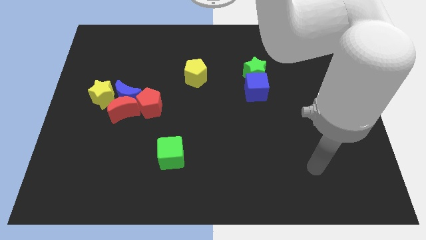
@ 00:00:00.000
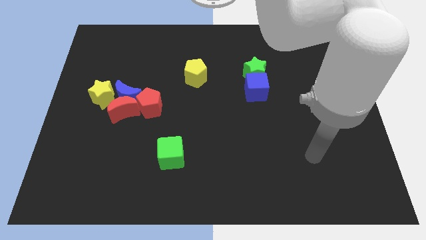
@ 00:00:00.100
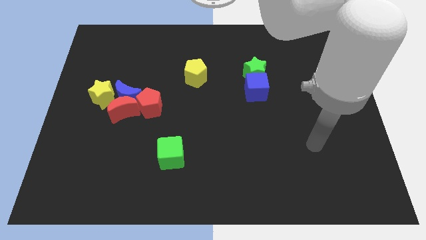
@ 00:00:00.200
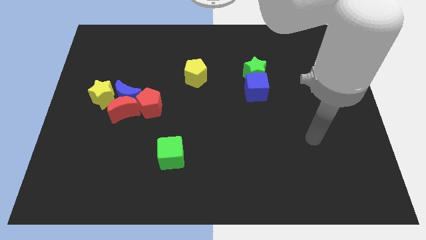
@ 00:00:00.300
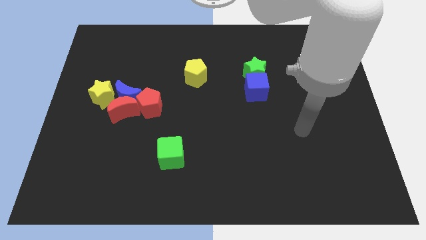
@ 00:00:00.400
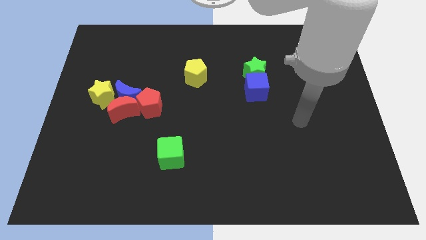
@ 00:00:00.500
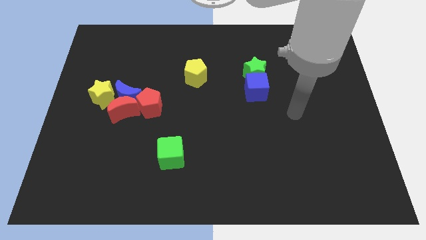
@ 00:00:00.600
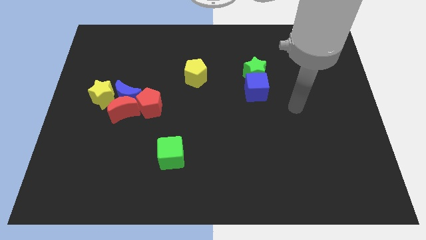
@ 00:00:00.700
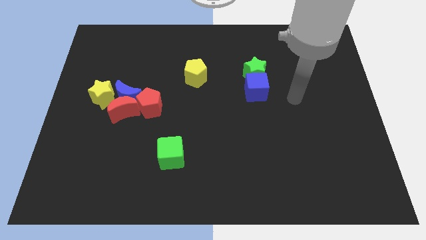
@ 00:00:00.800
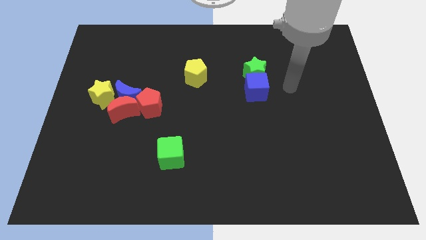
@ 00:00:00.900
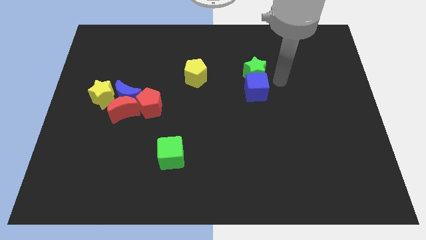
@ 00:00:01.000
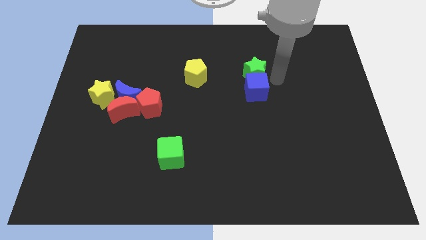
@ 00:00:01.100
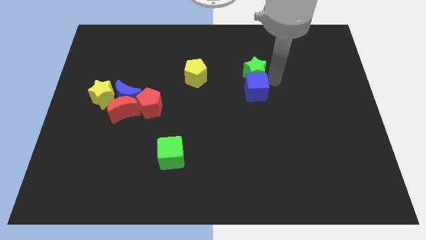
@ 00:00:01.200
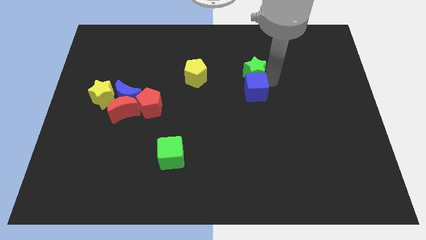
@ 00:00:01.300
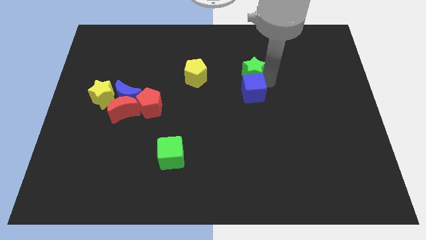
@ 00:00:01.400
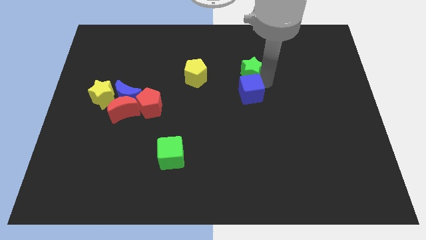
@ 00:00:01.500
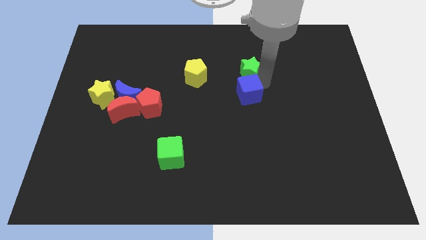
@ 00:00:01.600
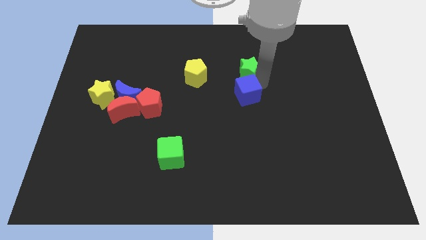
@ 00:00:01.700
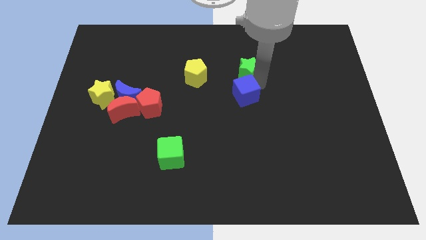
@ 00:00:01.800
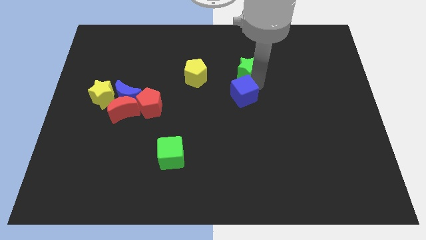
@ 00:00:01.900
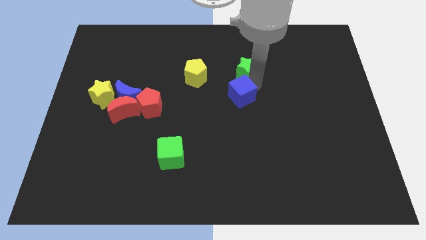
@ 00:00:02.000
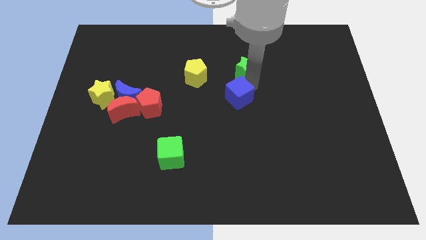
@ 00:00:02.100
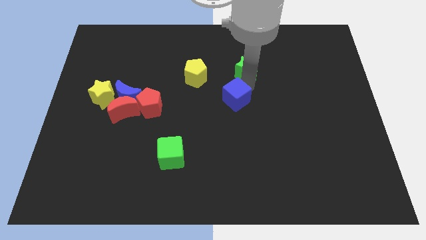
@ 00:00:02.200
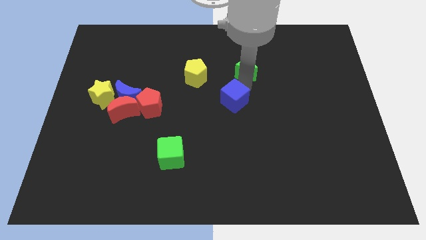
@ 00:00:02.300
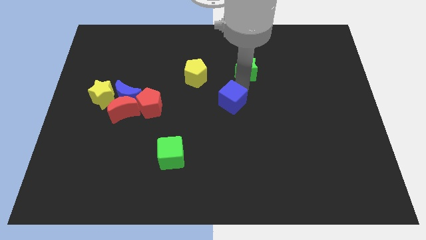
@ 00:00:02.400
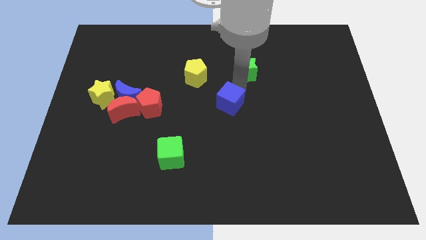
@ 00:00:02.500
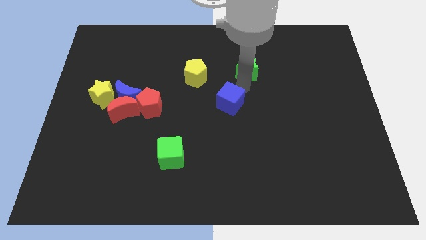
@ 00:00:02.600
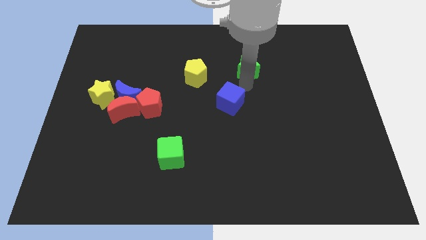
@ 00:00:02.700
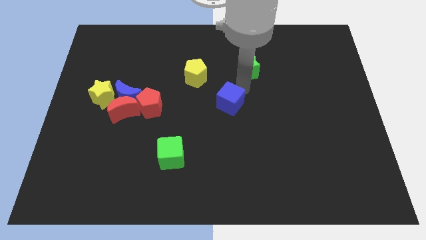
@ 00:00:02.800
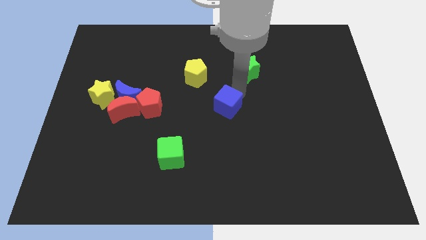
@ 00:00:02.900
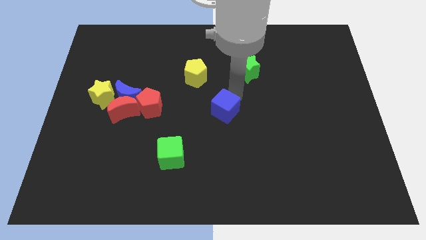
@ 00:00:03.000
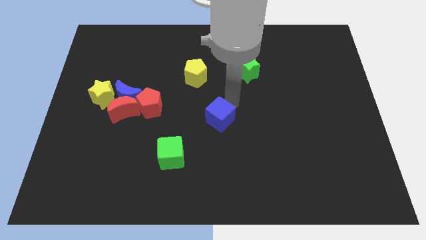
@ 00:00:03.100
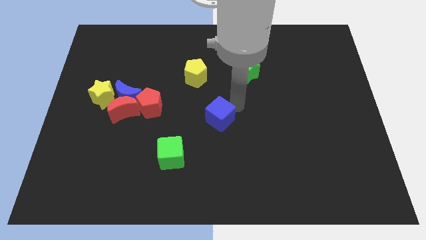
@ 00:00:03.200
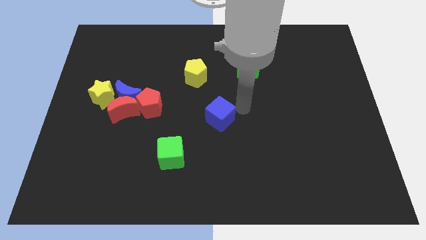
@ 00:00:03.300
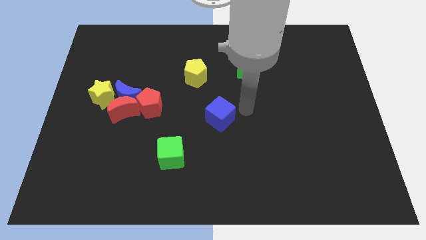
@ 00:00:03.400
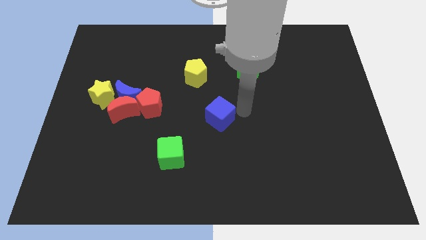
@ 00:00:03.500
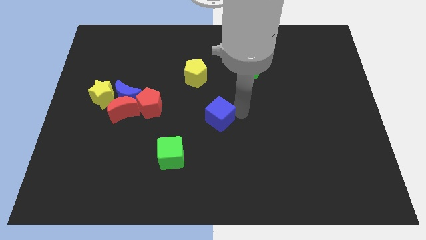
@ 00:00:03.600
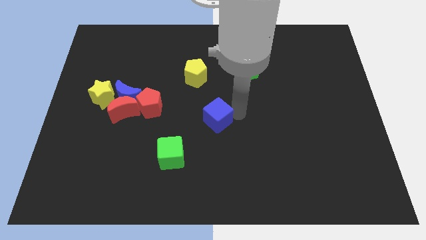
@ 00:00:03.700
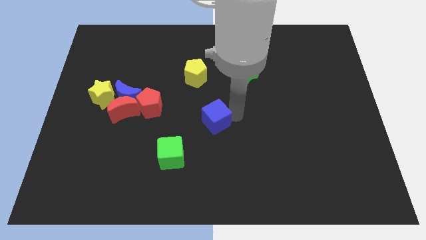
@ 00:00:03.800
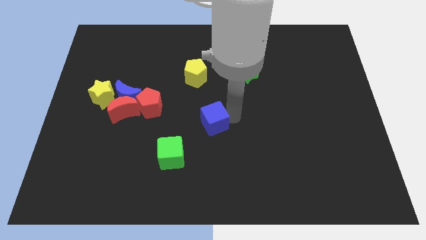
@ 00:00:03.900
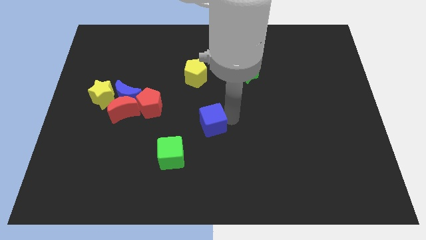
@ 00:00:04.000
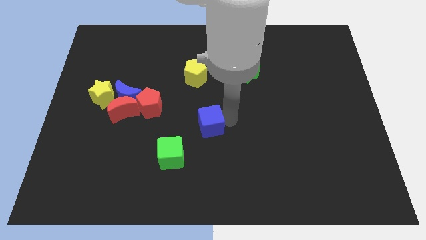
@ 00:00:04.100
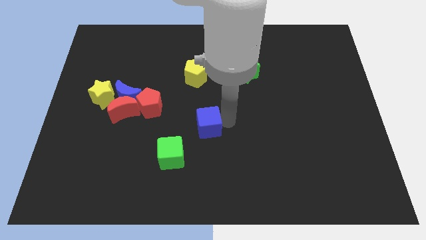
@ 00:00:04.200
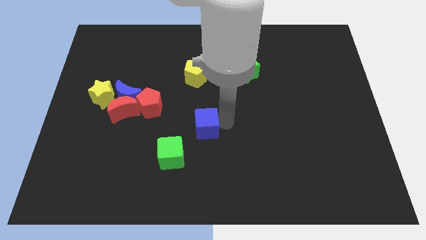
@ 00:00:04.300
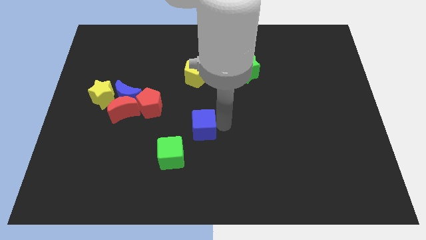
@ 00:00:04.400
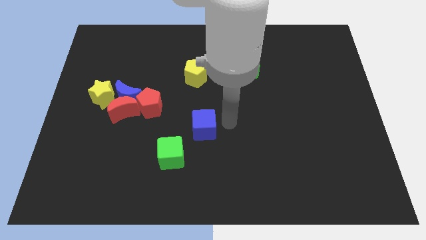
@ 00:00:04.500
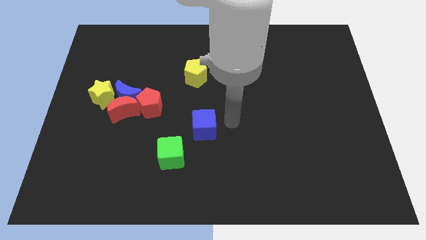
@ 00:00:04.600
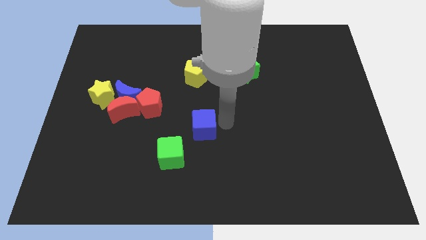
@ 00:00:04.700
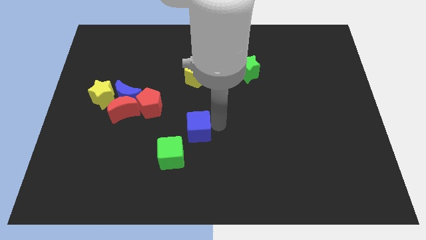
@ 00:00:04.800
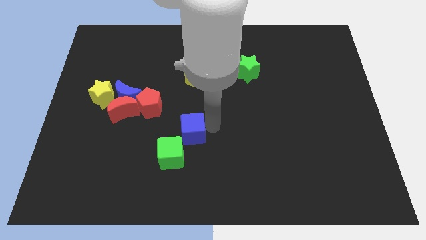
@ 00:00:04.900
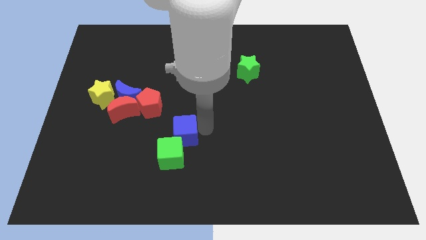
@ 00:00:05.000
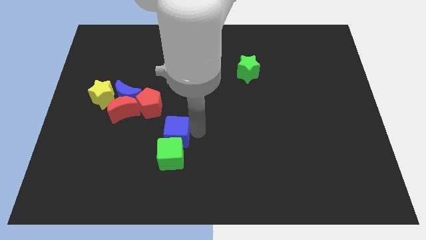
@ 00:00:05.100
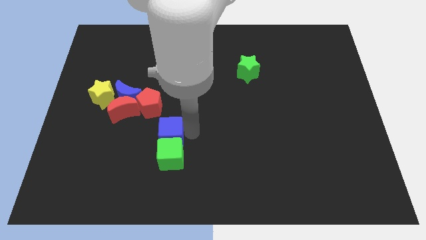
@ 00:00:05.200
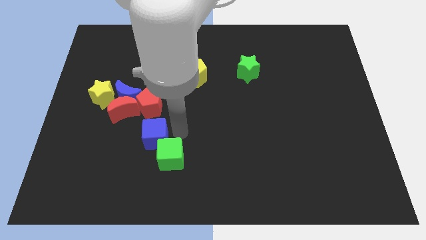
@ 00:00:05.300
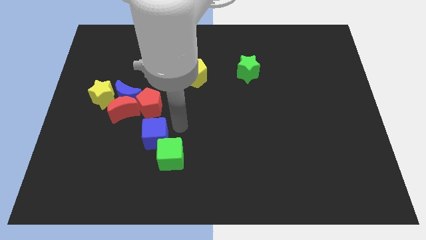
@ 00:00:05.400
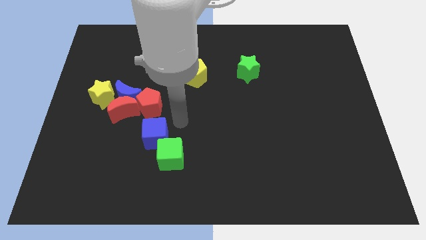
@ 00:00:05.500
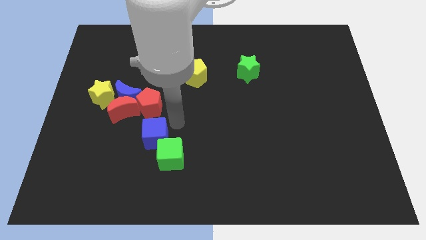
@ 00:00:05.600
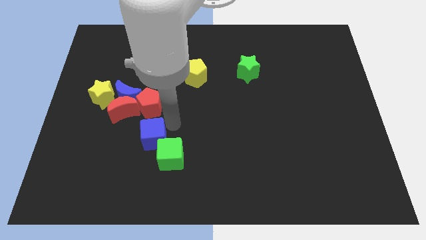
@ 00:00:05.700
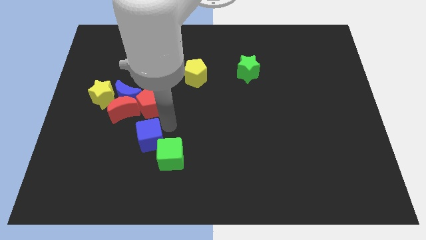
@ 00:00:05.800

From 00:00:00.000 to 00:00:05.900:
put the blue cube left of the green cube

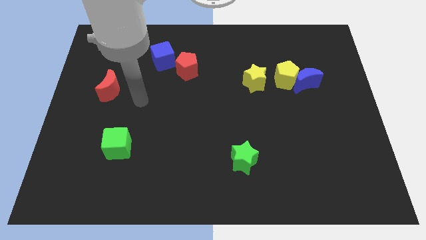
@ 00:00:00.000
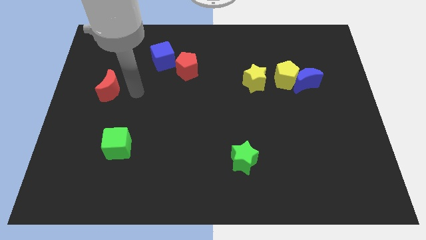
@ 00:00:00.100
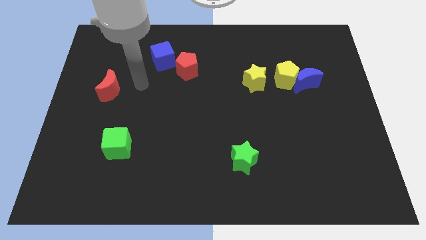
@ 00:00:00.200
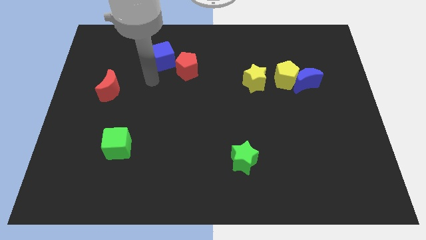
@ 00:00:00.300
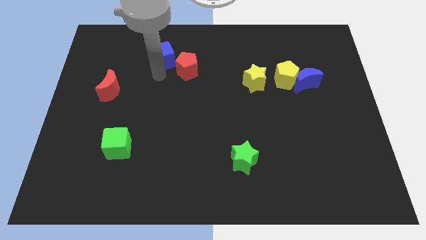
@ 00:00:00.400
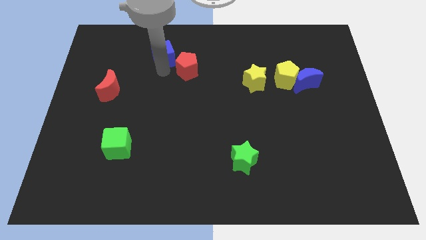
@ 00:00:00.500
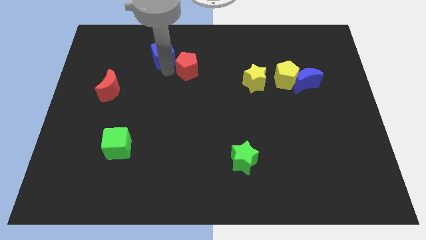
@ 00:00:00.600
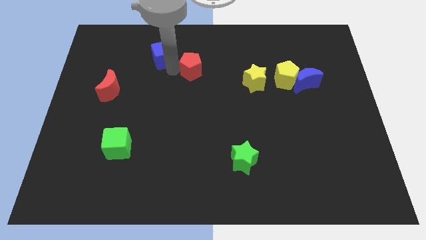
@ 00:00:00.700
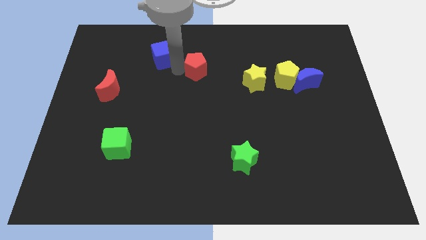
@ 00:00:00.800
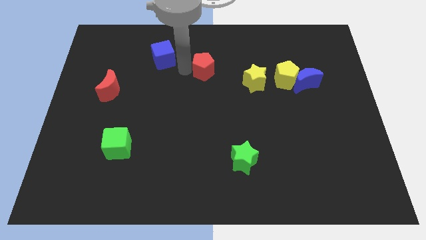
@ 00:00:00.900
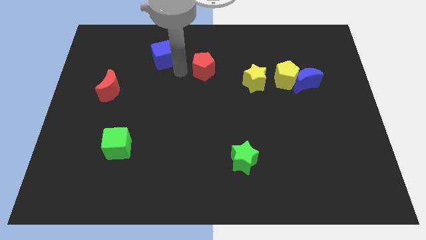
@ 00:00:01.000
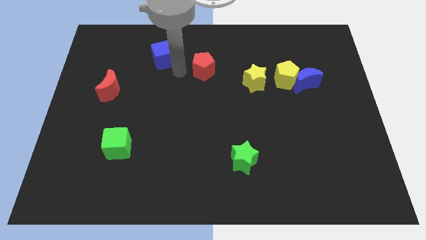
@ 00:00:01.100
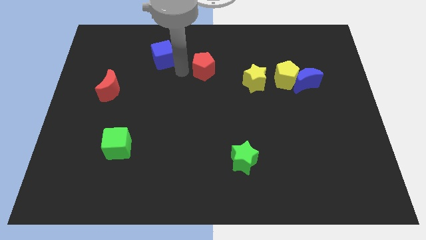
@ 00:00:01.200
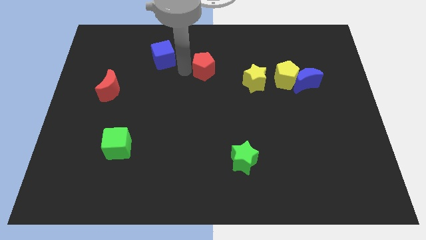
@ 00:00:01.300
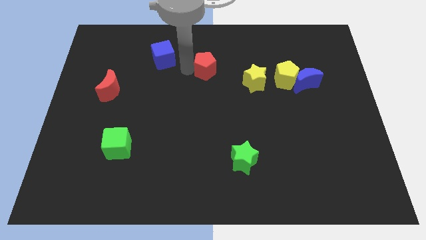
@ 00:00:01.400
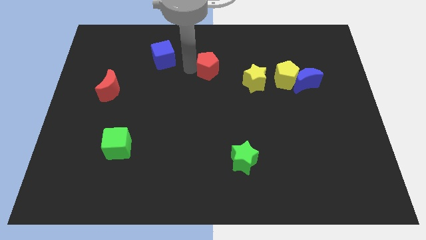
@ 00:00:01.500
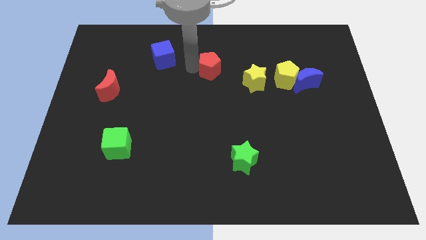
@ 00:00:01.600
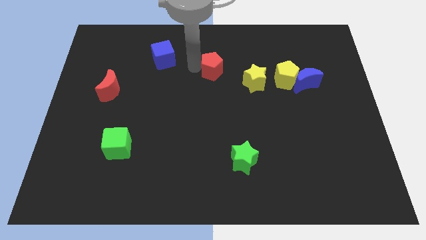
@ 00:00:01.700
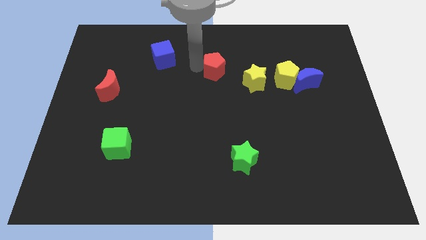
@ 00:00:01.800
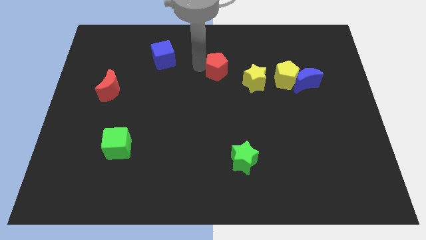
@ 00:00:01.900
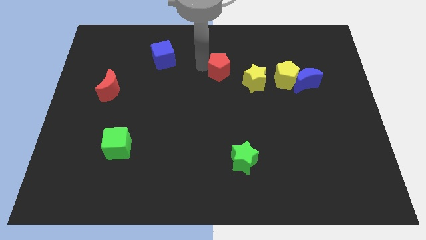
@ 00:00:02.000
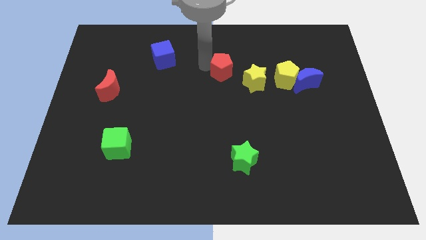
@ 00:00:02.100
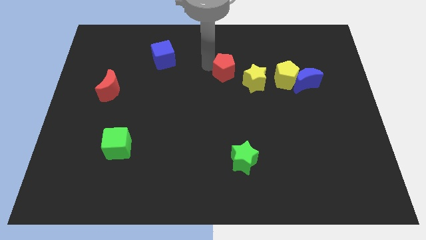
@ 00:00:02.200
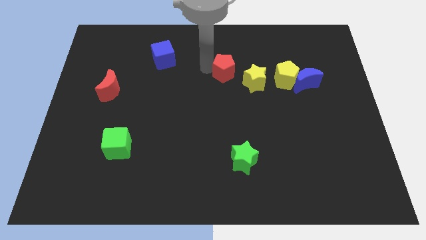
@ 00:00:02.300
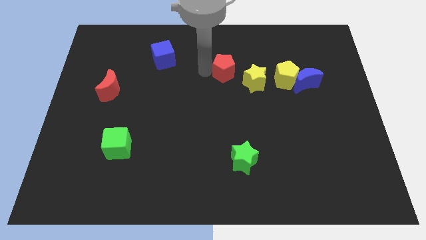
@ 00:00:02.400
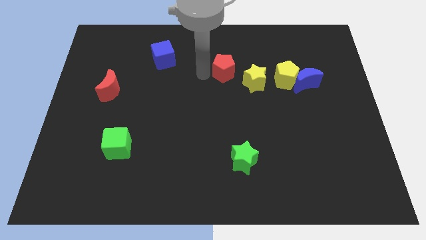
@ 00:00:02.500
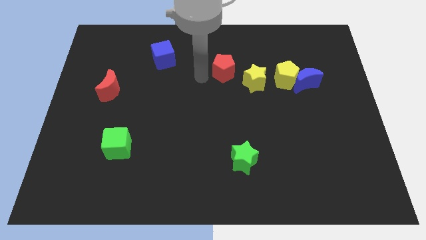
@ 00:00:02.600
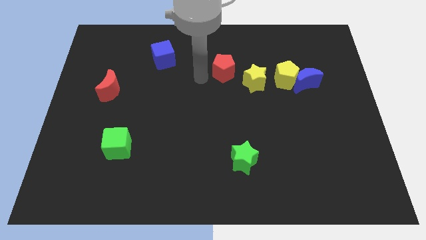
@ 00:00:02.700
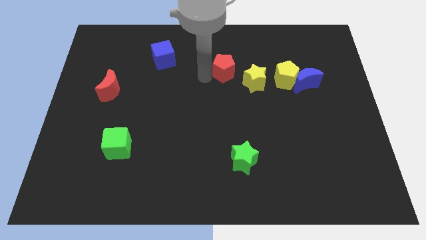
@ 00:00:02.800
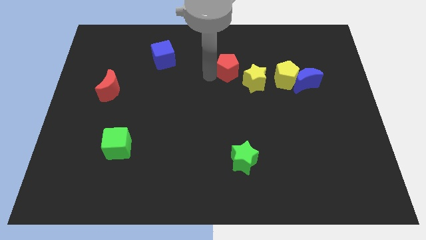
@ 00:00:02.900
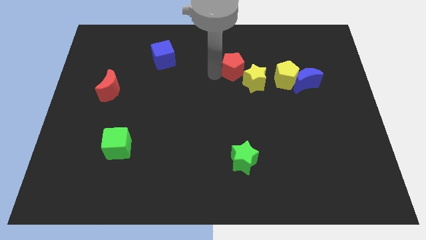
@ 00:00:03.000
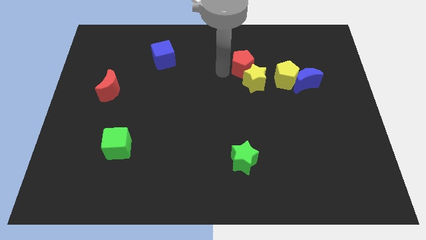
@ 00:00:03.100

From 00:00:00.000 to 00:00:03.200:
put the red pentagon diagonally up and to the left of the yellow pentagon
